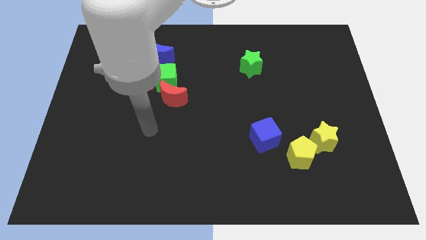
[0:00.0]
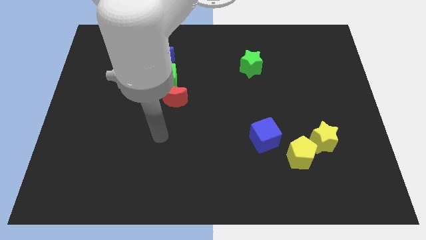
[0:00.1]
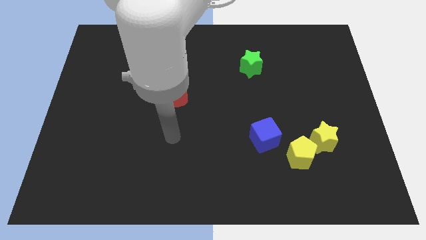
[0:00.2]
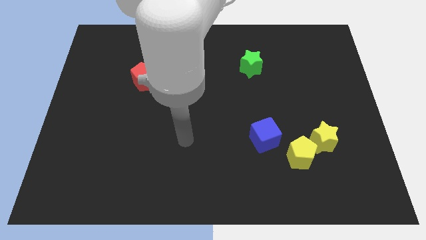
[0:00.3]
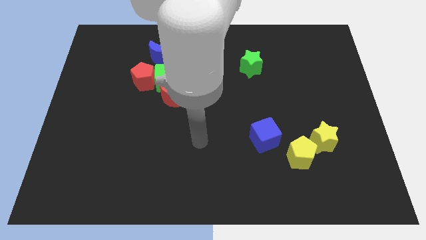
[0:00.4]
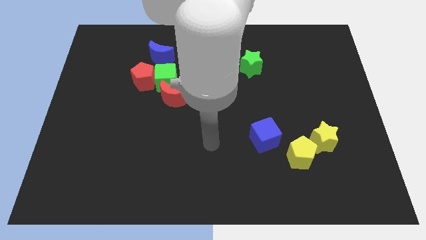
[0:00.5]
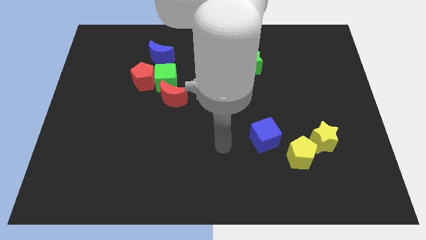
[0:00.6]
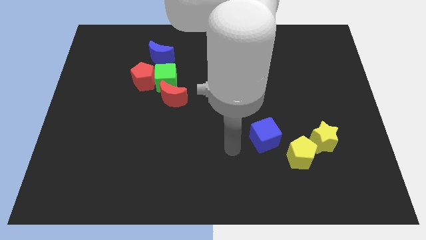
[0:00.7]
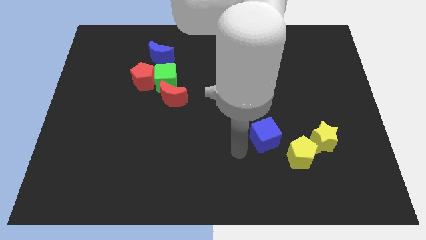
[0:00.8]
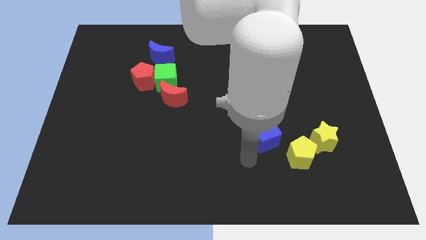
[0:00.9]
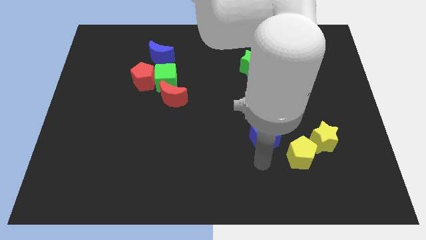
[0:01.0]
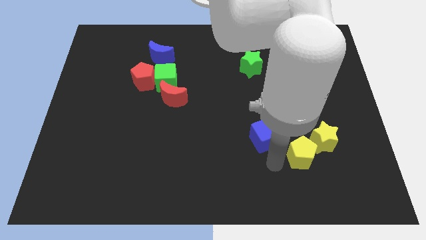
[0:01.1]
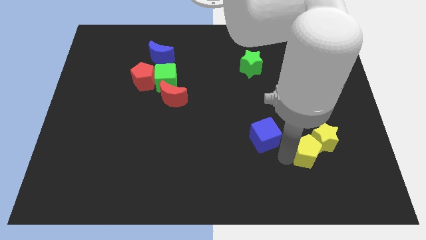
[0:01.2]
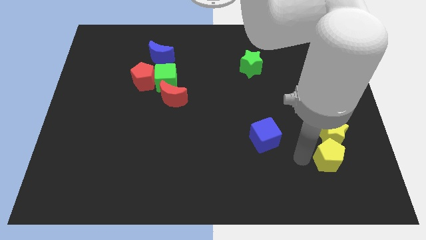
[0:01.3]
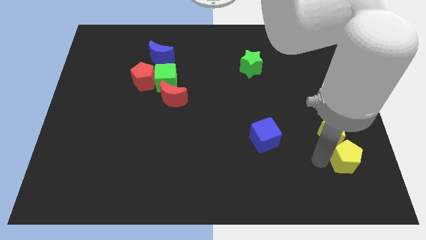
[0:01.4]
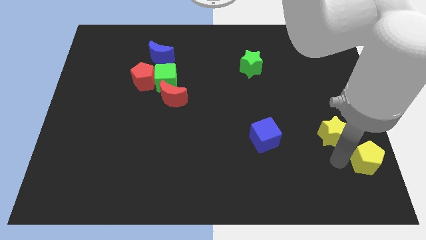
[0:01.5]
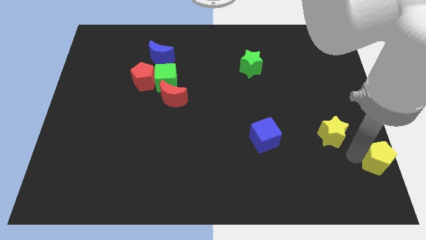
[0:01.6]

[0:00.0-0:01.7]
pull the yellow star apart from the yellow pentagon

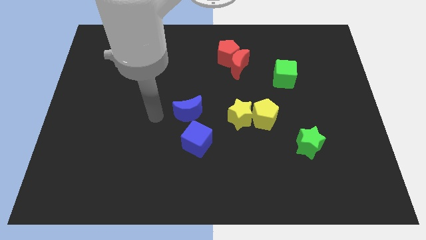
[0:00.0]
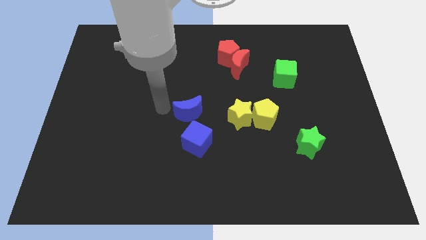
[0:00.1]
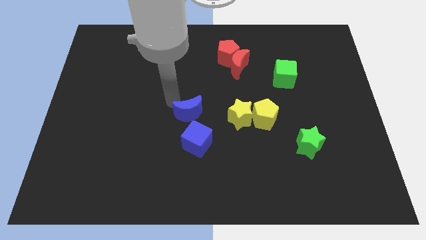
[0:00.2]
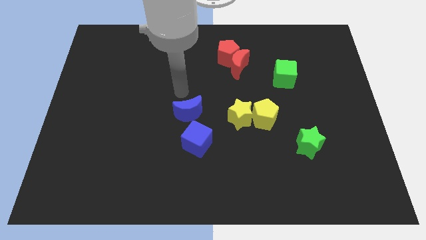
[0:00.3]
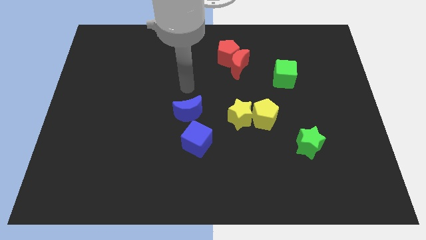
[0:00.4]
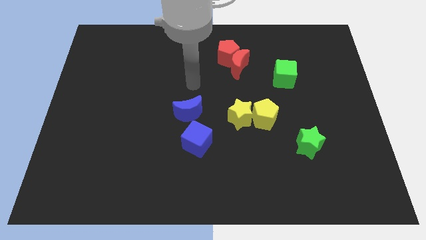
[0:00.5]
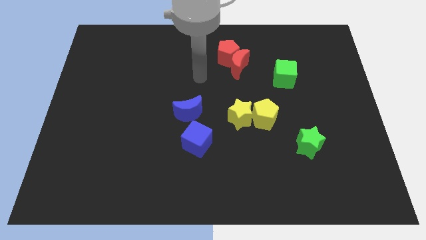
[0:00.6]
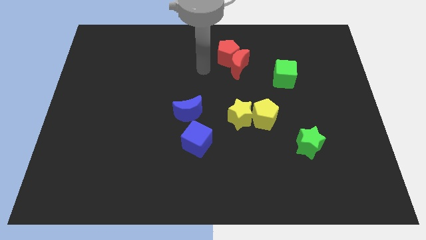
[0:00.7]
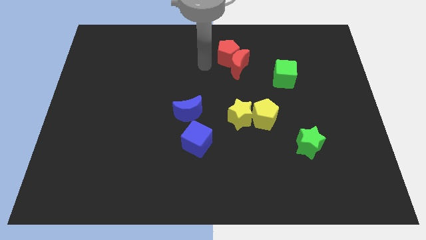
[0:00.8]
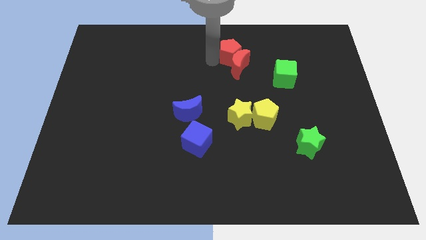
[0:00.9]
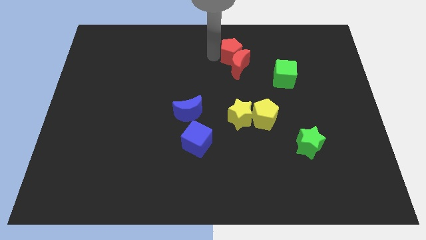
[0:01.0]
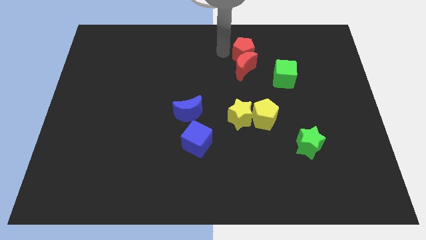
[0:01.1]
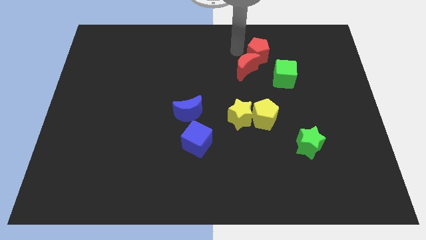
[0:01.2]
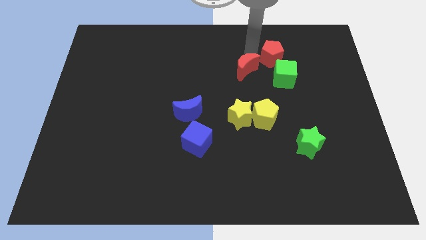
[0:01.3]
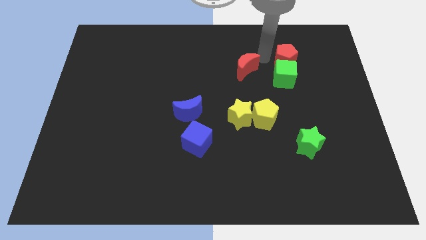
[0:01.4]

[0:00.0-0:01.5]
pull the red moon apart from the red pentagon

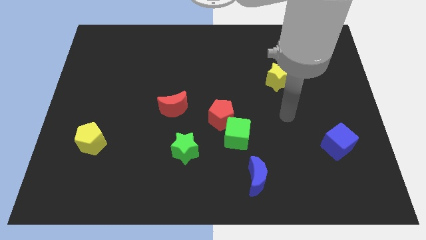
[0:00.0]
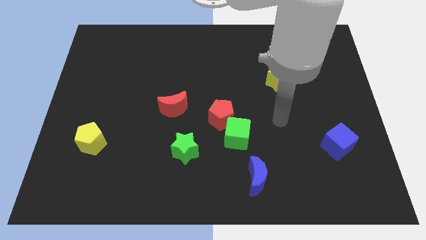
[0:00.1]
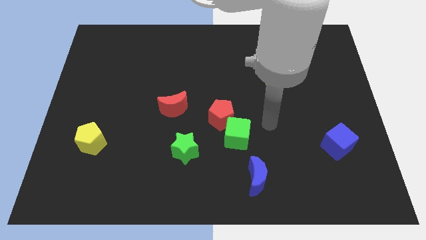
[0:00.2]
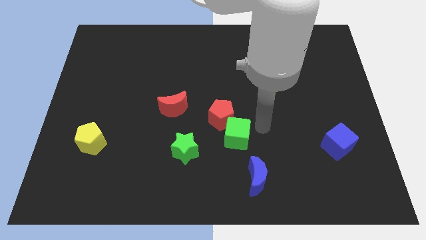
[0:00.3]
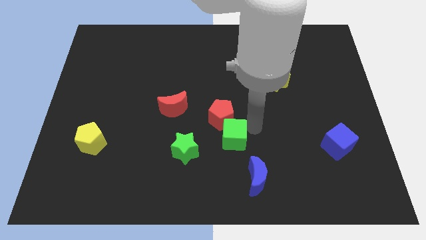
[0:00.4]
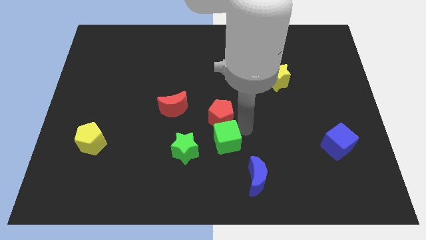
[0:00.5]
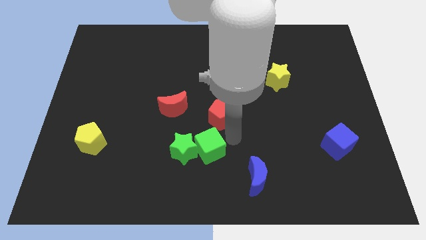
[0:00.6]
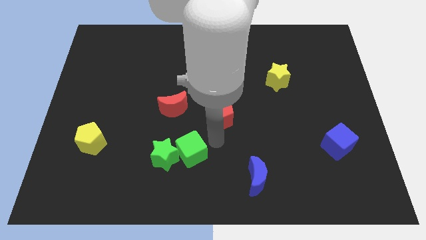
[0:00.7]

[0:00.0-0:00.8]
separate the red pentagon from the green cube

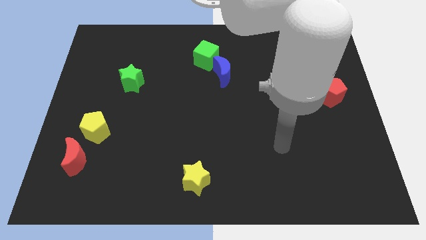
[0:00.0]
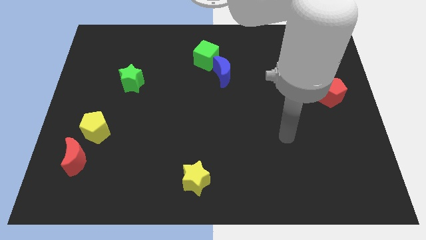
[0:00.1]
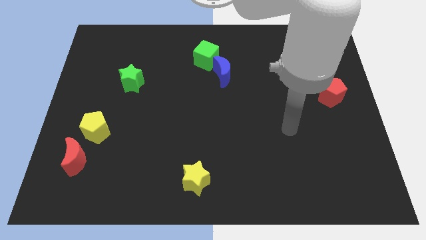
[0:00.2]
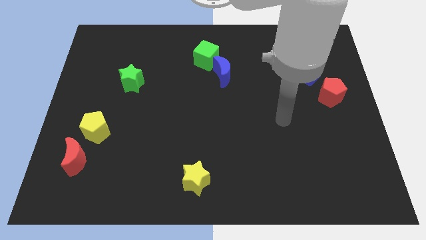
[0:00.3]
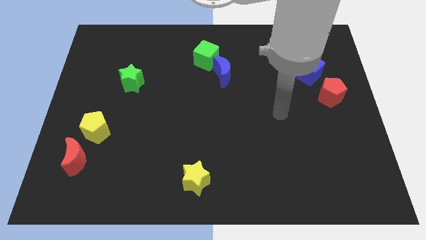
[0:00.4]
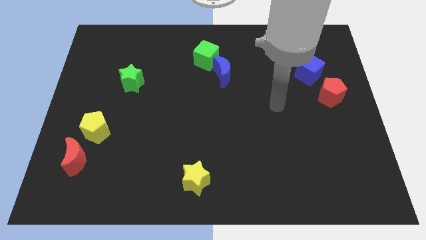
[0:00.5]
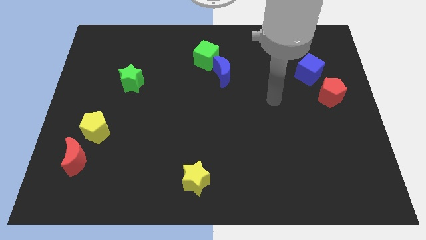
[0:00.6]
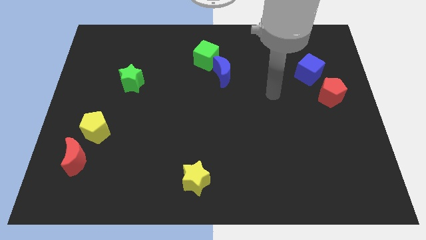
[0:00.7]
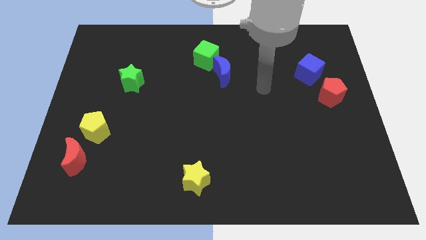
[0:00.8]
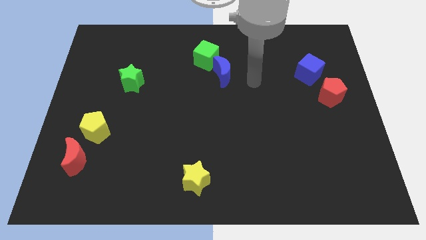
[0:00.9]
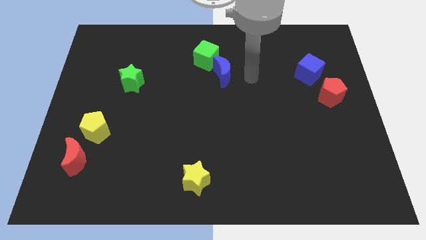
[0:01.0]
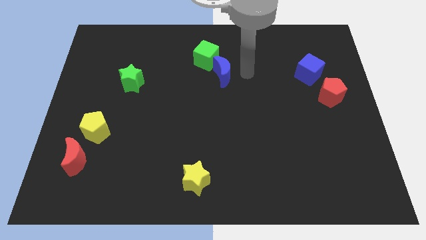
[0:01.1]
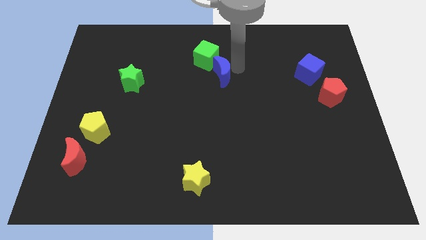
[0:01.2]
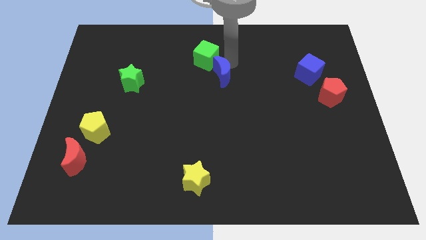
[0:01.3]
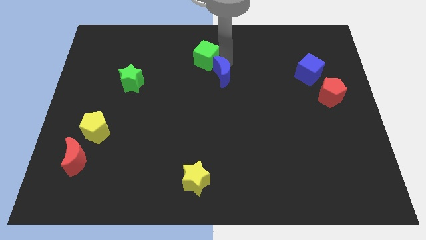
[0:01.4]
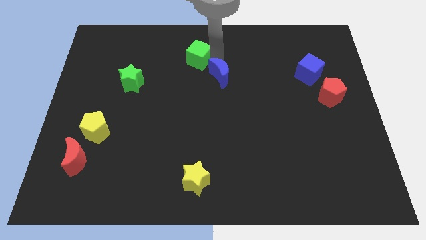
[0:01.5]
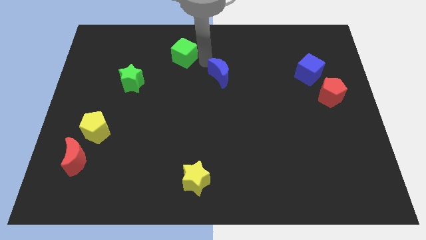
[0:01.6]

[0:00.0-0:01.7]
pull the blue moon apart from the green cube

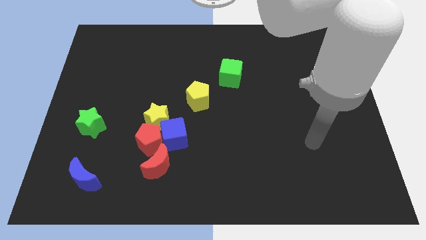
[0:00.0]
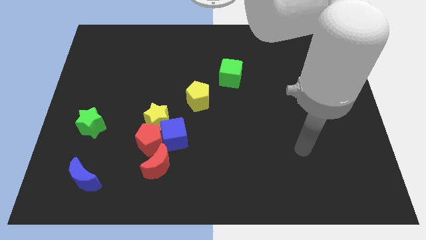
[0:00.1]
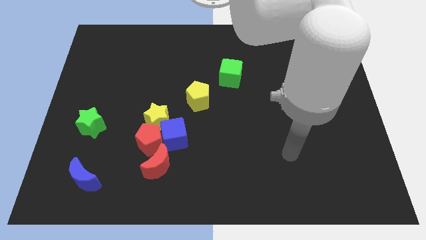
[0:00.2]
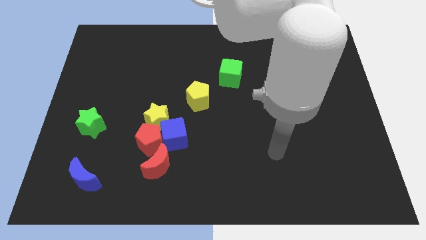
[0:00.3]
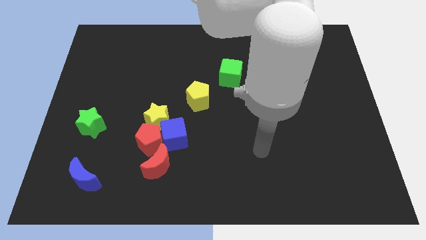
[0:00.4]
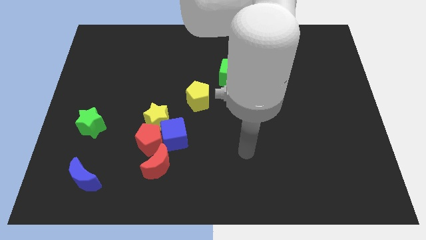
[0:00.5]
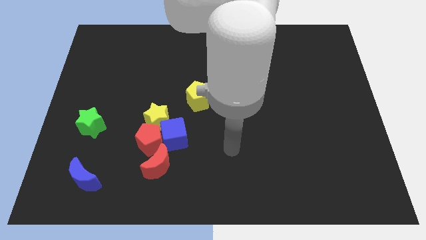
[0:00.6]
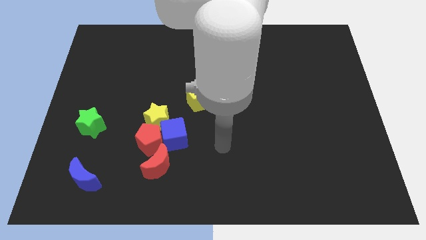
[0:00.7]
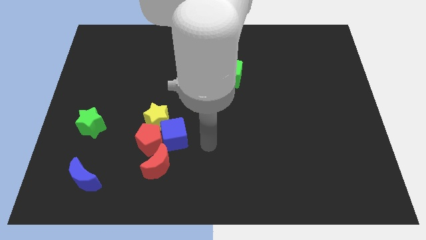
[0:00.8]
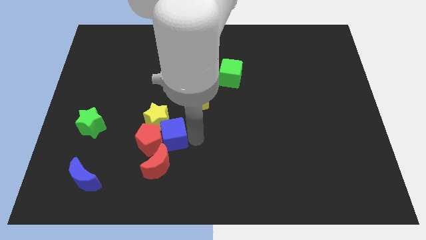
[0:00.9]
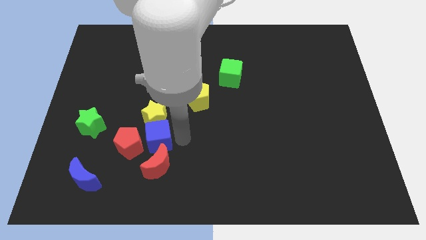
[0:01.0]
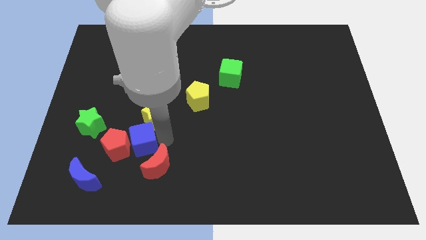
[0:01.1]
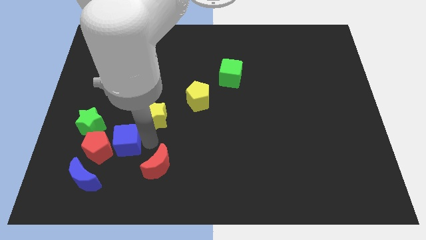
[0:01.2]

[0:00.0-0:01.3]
separate the red pentagon from the group of blocks

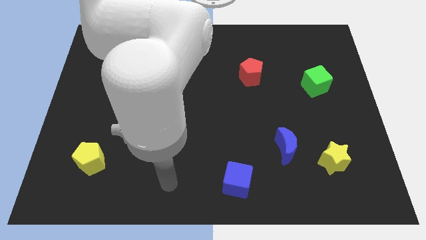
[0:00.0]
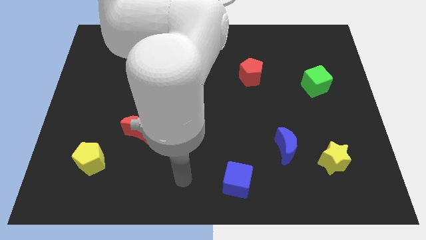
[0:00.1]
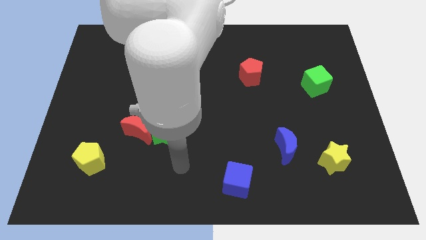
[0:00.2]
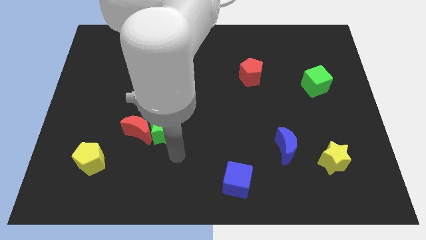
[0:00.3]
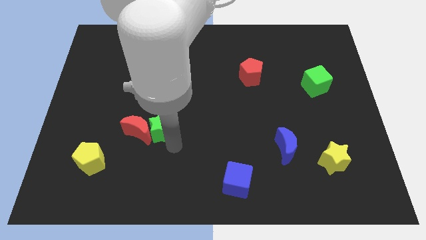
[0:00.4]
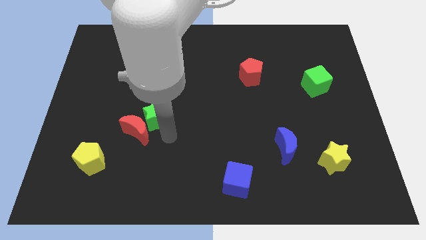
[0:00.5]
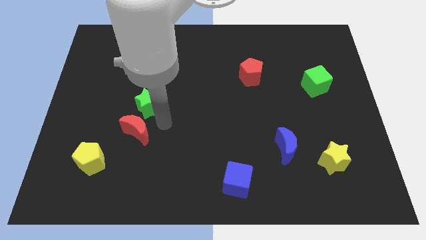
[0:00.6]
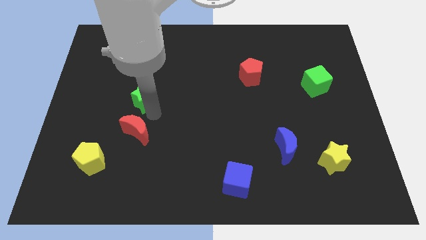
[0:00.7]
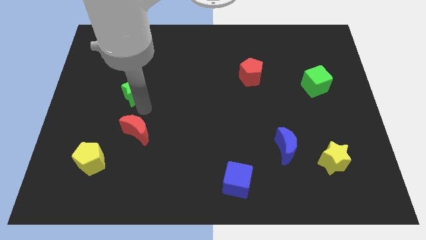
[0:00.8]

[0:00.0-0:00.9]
pull the red moon apart from the green star

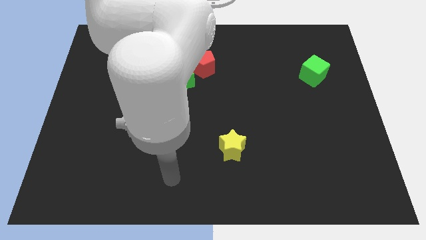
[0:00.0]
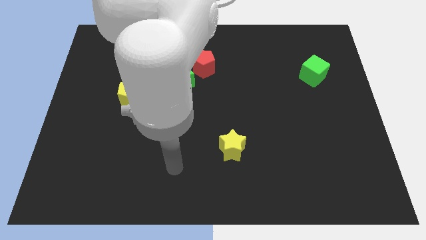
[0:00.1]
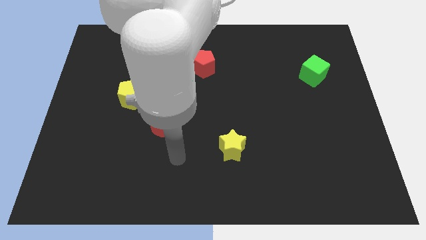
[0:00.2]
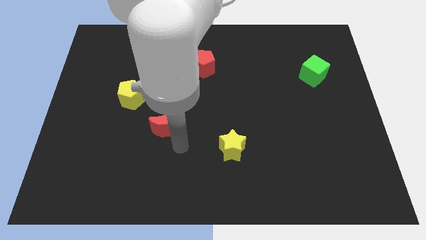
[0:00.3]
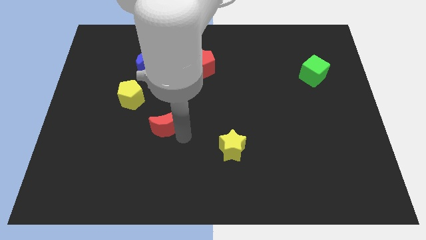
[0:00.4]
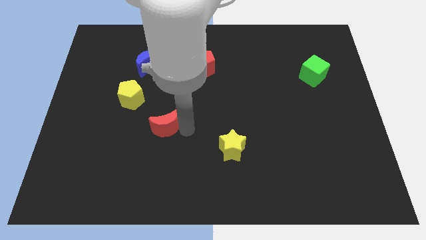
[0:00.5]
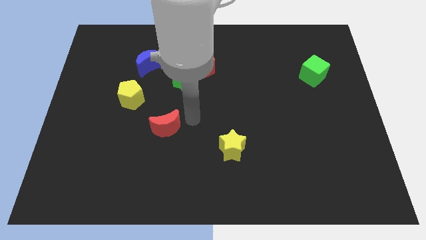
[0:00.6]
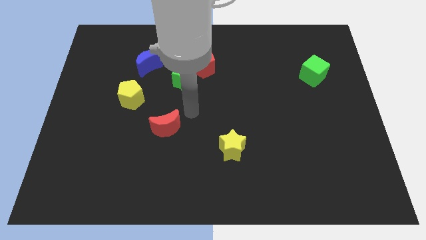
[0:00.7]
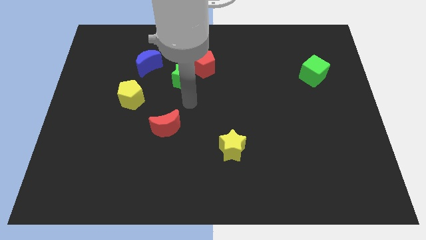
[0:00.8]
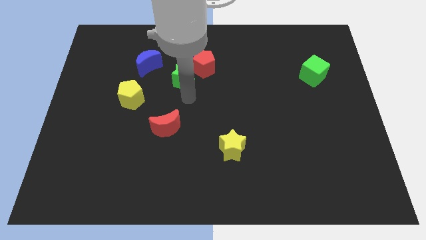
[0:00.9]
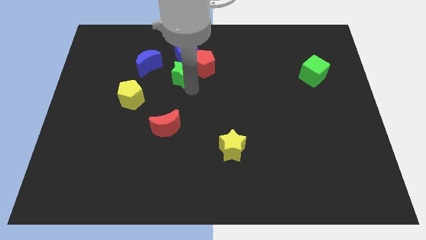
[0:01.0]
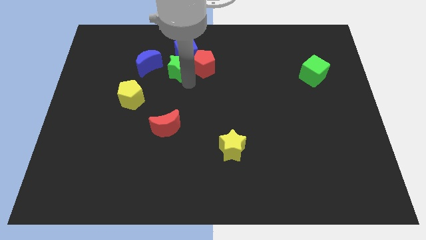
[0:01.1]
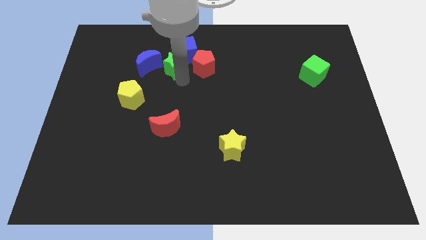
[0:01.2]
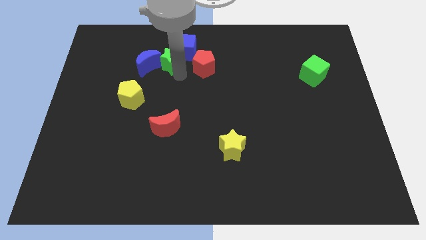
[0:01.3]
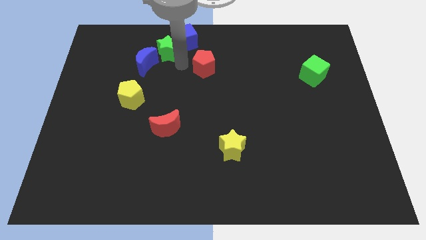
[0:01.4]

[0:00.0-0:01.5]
pull the red pentagon apart from the blue cube and green star
